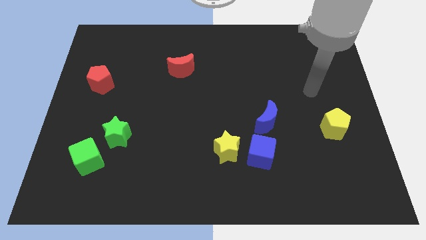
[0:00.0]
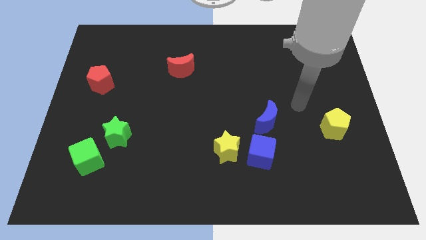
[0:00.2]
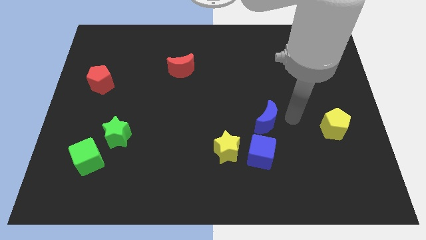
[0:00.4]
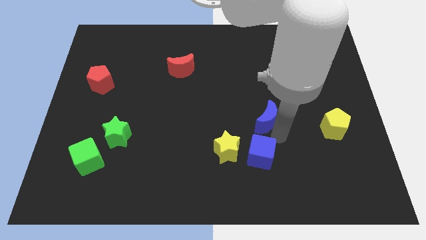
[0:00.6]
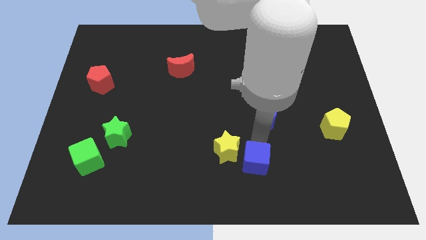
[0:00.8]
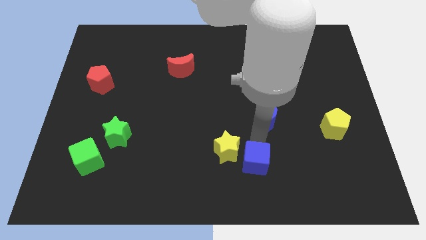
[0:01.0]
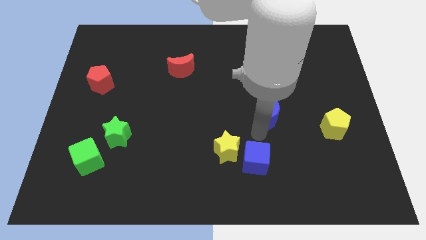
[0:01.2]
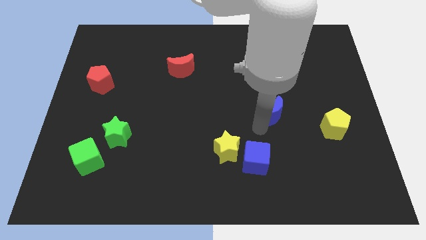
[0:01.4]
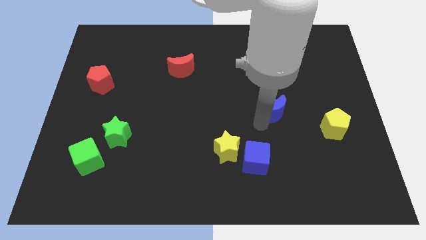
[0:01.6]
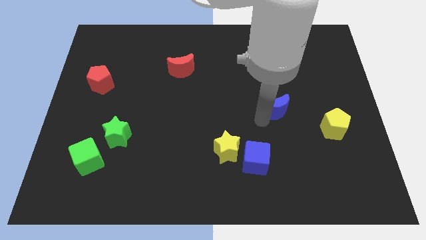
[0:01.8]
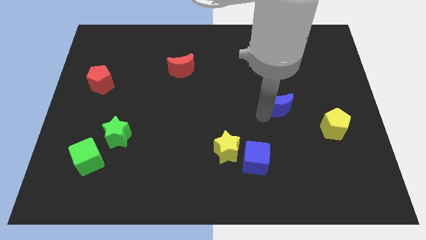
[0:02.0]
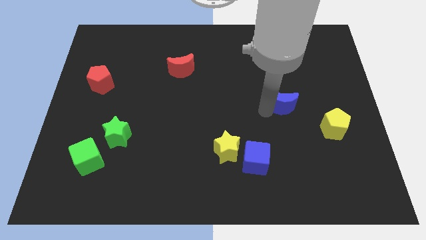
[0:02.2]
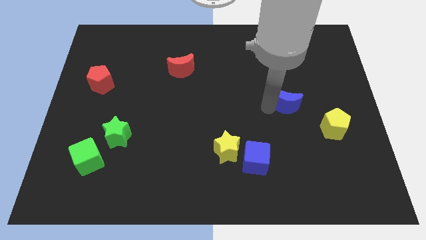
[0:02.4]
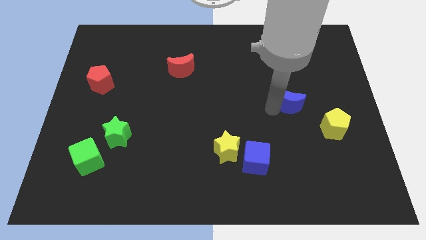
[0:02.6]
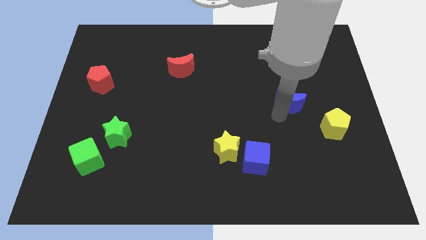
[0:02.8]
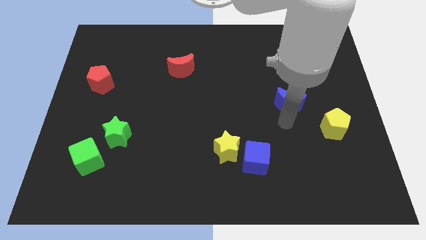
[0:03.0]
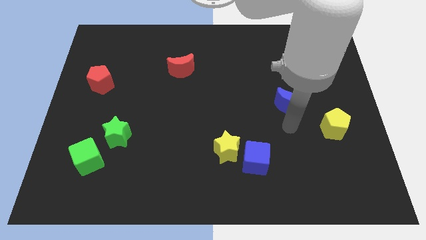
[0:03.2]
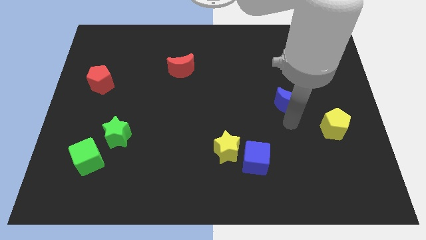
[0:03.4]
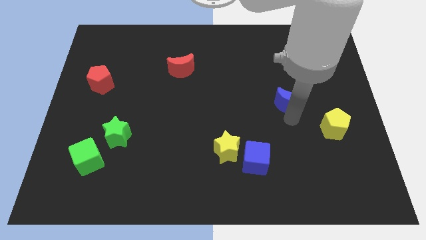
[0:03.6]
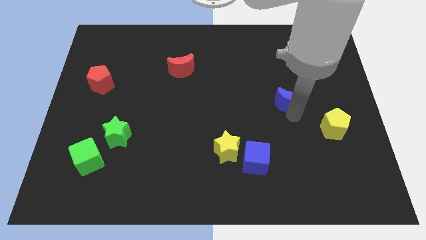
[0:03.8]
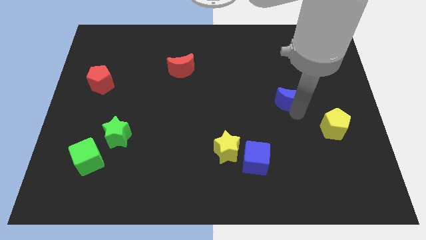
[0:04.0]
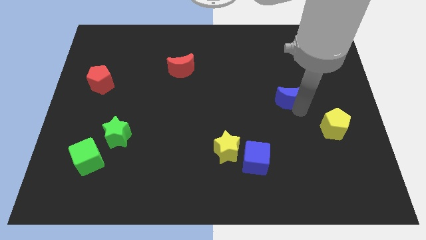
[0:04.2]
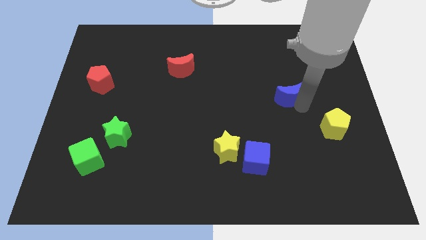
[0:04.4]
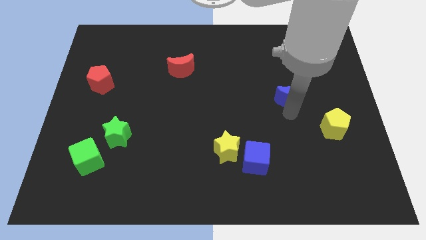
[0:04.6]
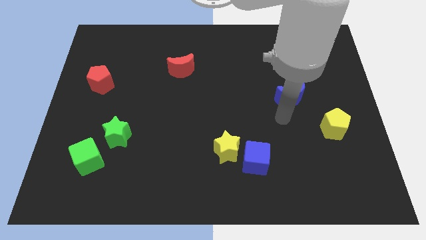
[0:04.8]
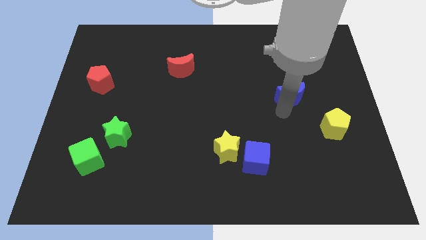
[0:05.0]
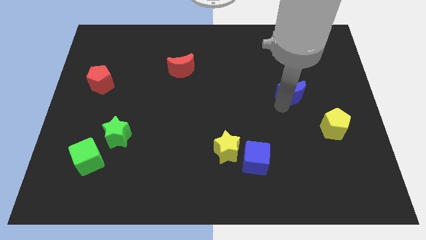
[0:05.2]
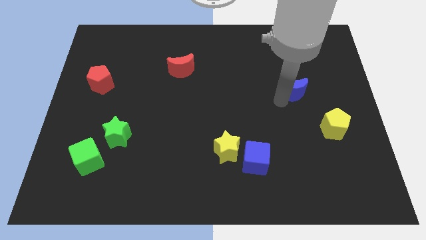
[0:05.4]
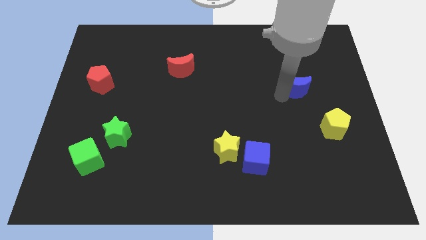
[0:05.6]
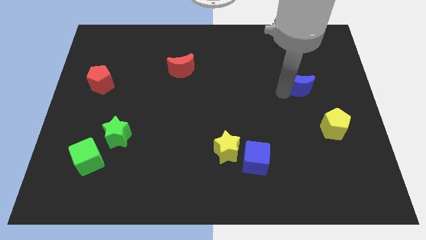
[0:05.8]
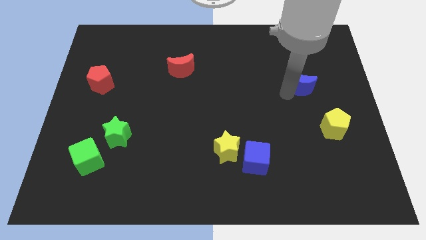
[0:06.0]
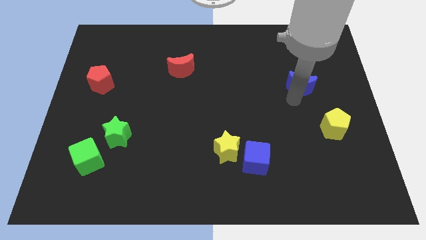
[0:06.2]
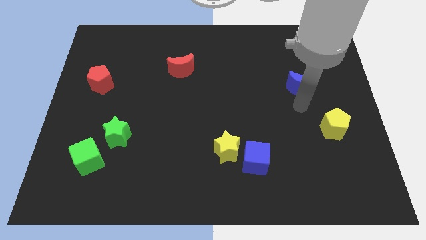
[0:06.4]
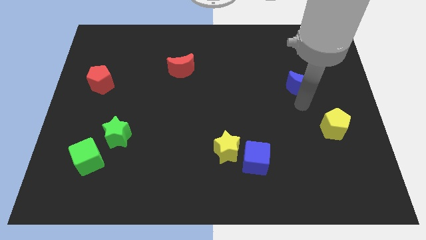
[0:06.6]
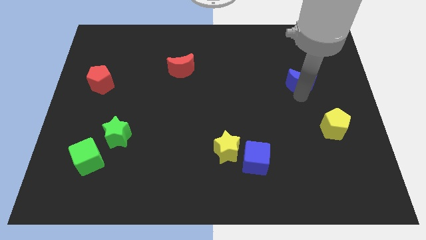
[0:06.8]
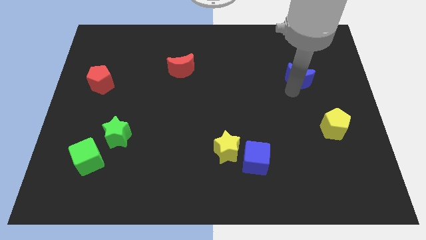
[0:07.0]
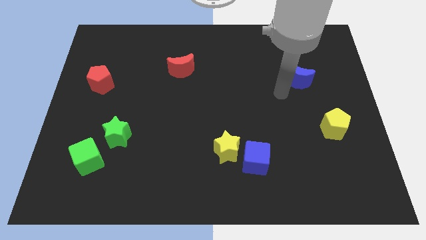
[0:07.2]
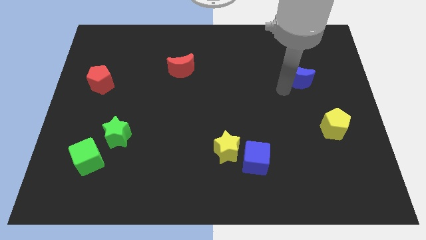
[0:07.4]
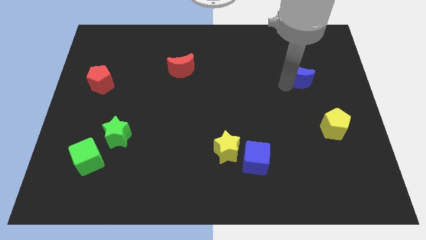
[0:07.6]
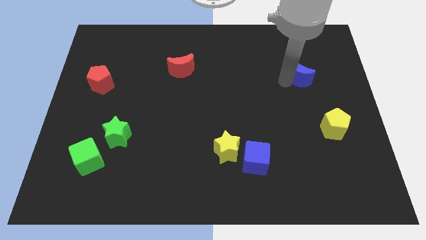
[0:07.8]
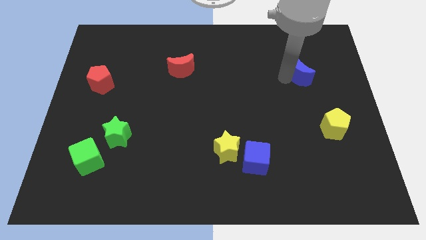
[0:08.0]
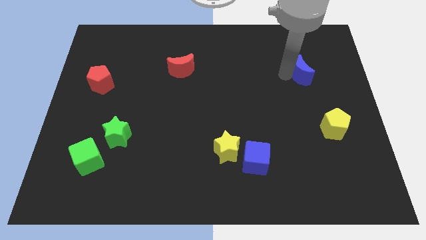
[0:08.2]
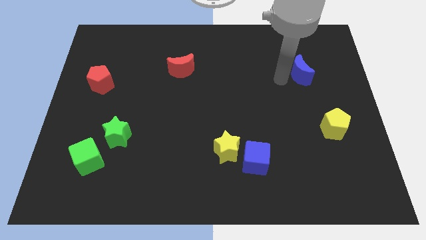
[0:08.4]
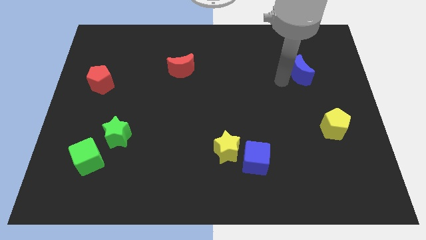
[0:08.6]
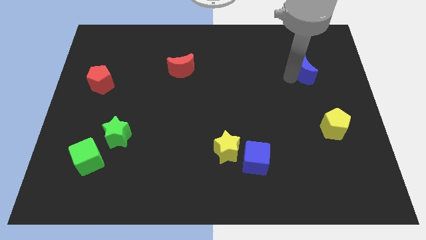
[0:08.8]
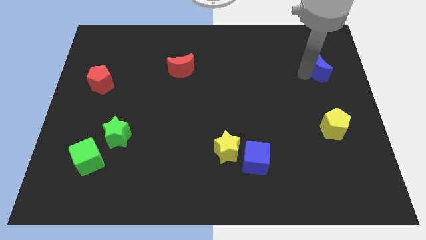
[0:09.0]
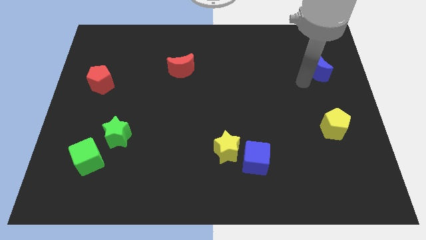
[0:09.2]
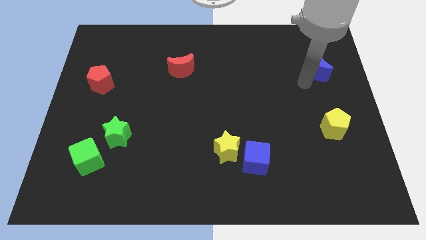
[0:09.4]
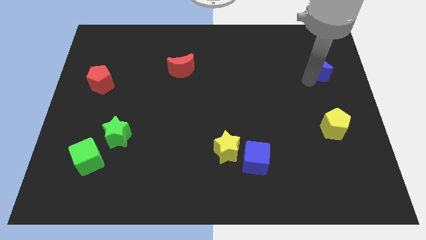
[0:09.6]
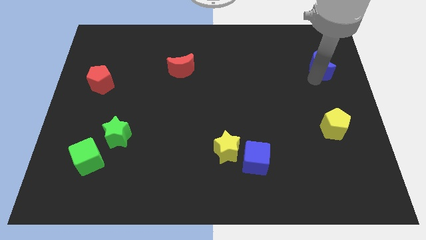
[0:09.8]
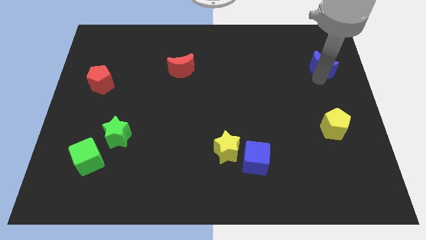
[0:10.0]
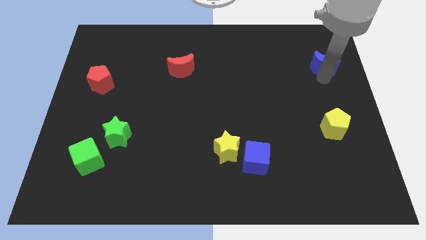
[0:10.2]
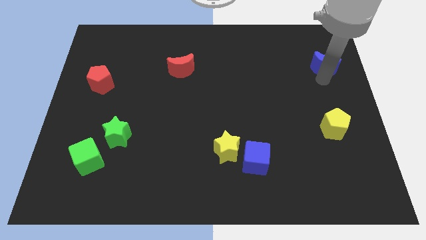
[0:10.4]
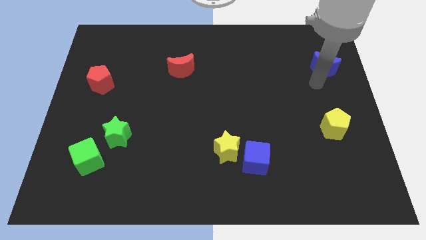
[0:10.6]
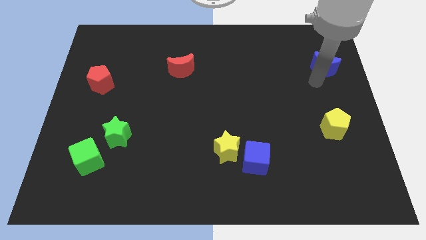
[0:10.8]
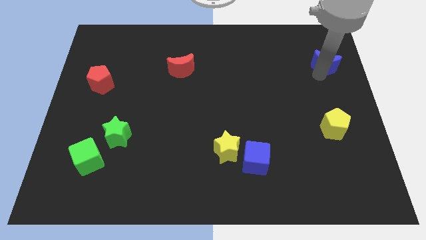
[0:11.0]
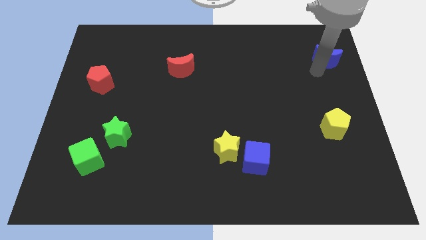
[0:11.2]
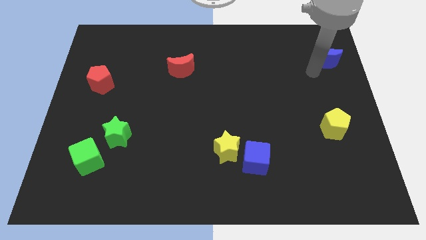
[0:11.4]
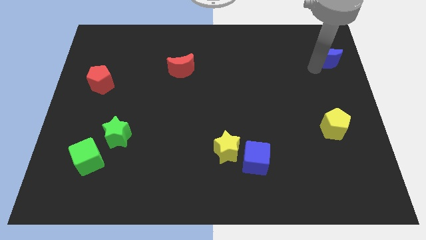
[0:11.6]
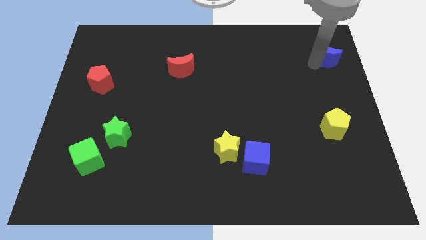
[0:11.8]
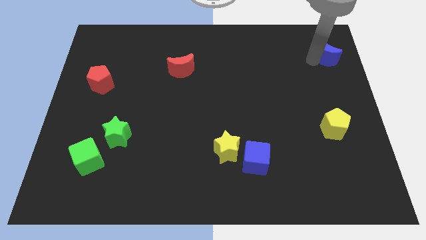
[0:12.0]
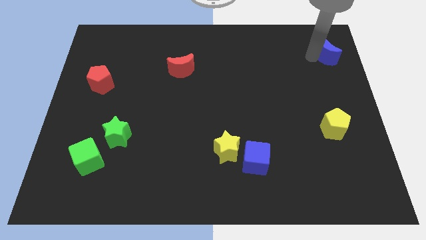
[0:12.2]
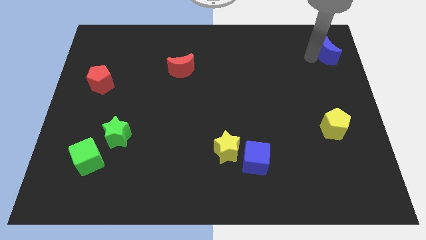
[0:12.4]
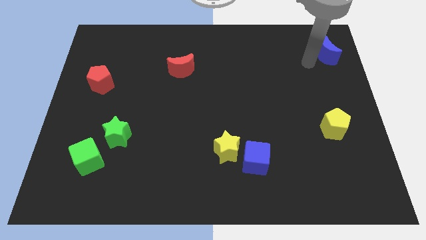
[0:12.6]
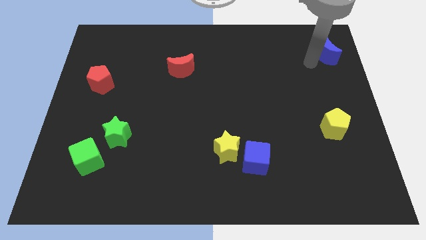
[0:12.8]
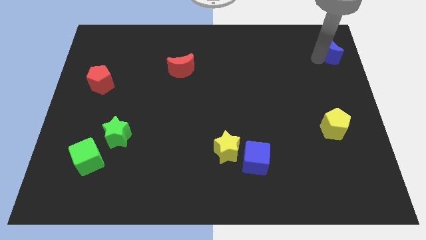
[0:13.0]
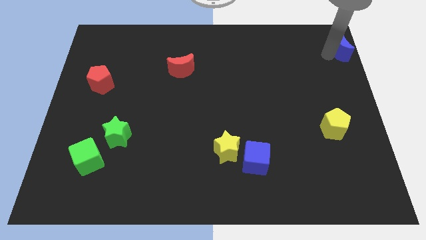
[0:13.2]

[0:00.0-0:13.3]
slide the blue moon to the top right corner
